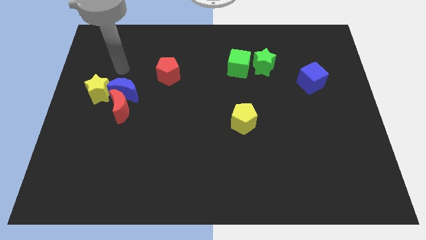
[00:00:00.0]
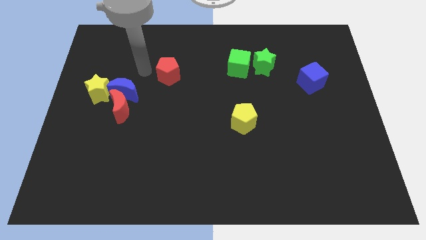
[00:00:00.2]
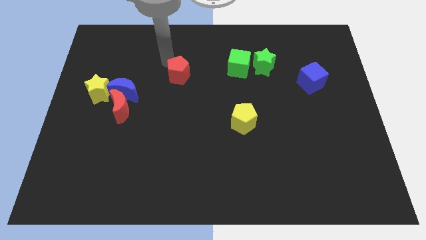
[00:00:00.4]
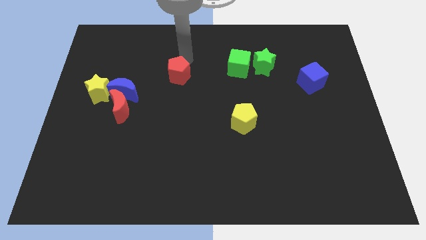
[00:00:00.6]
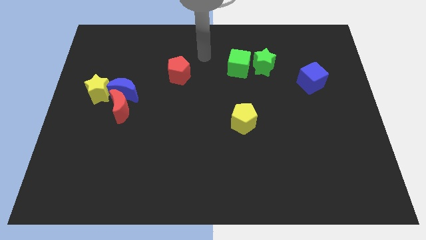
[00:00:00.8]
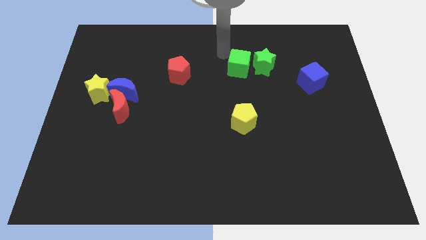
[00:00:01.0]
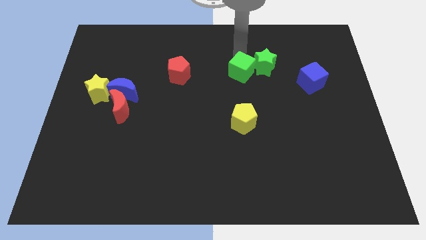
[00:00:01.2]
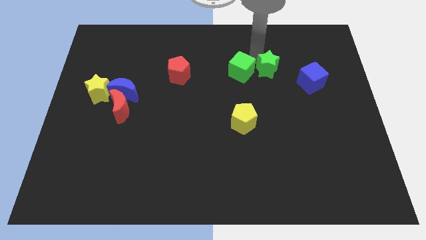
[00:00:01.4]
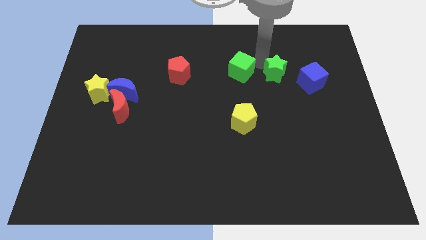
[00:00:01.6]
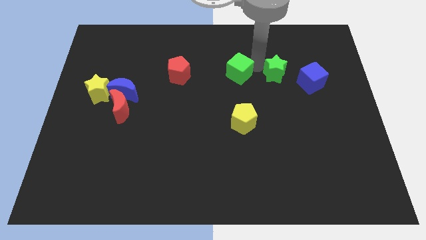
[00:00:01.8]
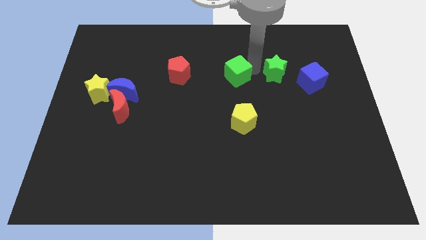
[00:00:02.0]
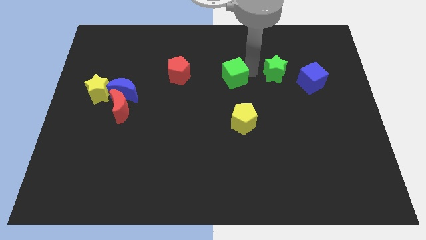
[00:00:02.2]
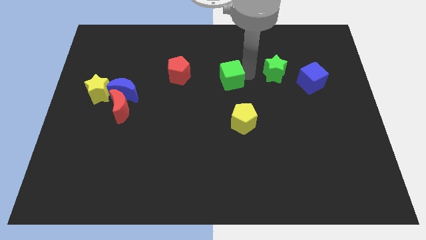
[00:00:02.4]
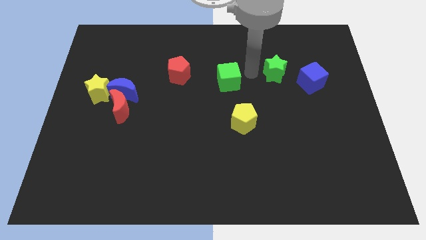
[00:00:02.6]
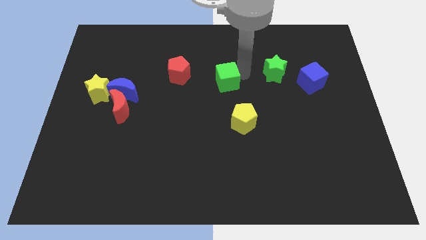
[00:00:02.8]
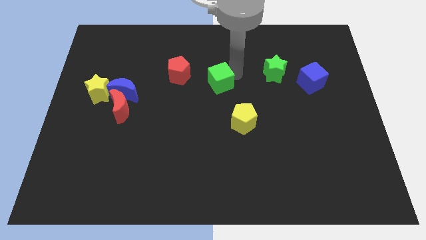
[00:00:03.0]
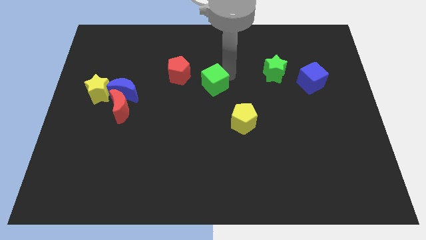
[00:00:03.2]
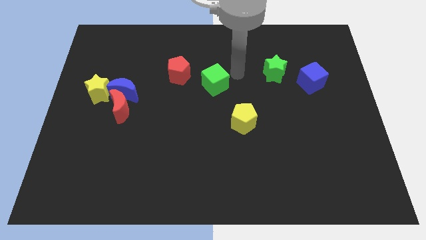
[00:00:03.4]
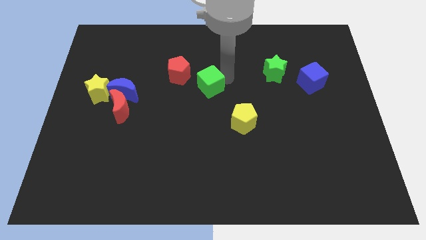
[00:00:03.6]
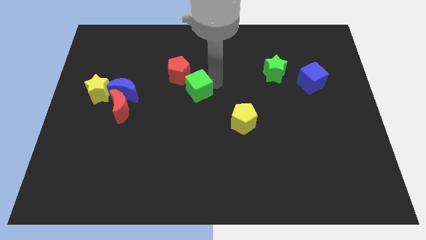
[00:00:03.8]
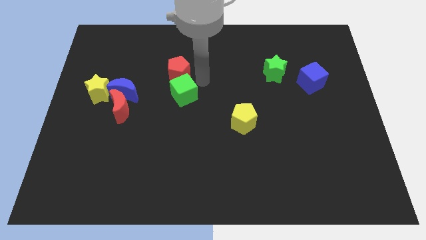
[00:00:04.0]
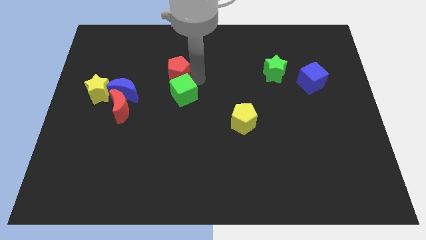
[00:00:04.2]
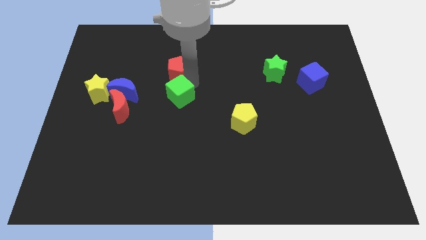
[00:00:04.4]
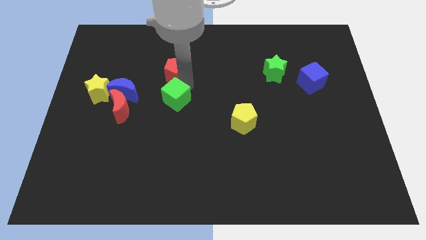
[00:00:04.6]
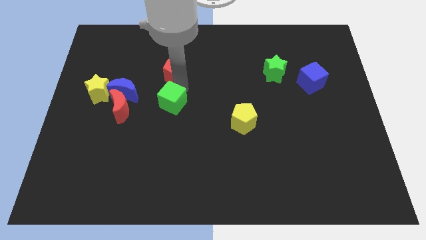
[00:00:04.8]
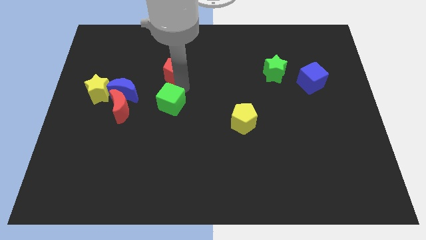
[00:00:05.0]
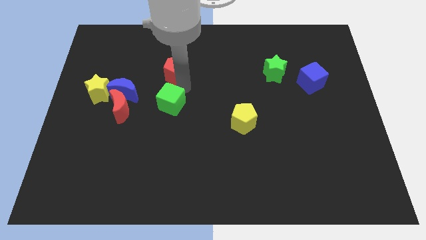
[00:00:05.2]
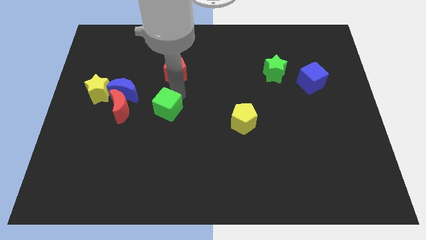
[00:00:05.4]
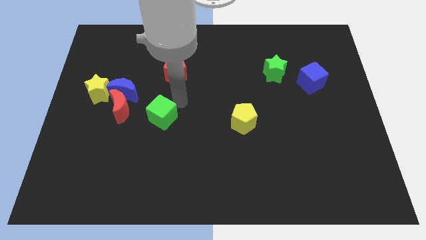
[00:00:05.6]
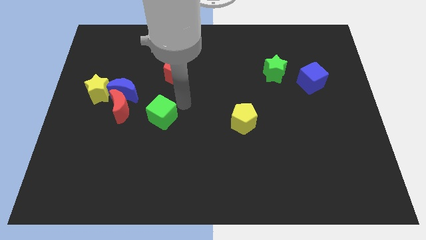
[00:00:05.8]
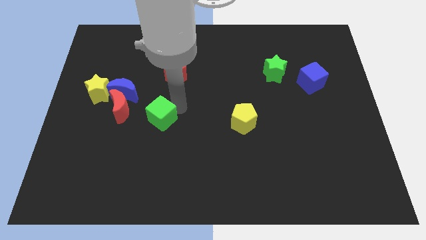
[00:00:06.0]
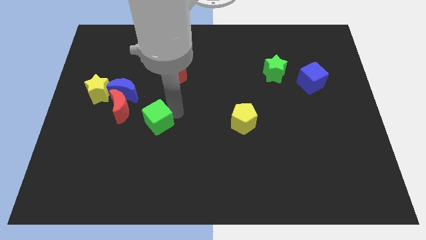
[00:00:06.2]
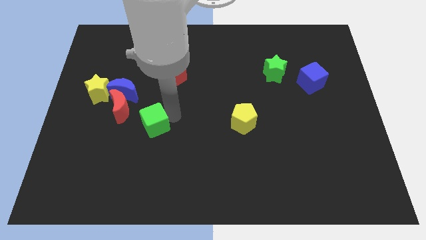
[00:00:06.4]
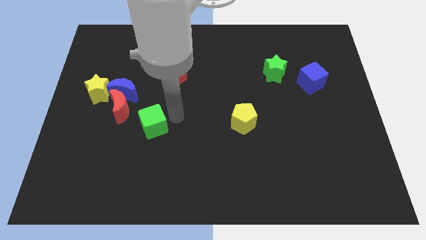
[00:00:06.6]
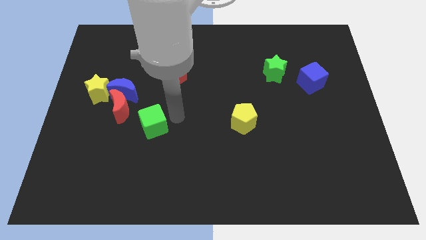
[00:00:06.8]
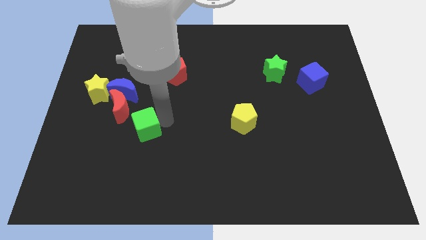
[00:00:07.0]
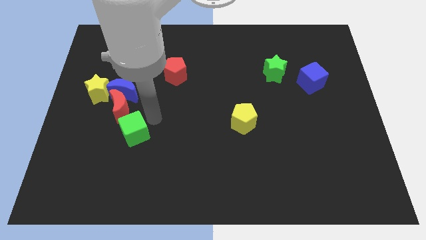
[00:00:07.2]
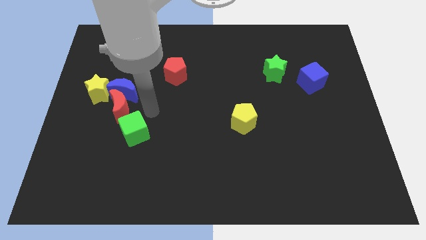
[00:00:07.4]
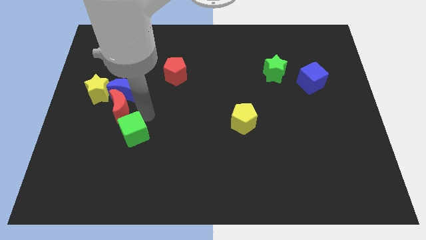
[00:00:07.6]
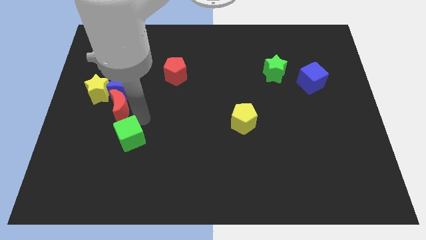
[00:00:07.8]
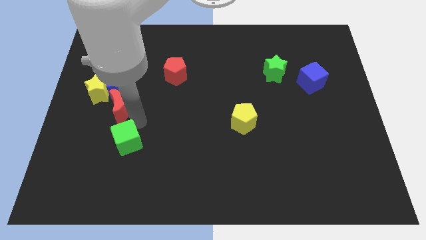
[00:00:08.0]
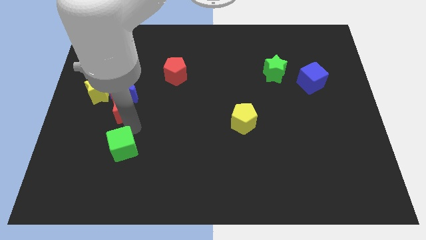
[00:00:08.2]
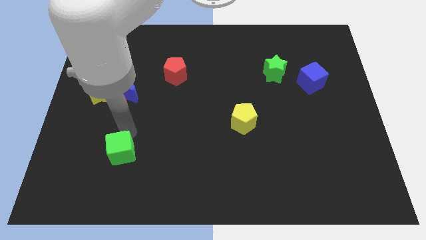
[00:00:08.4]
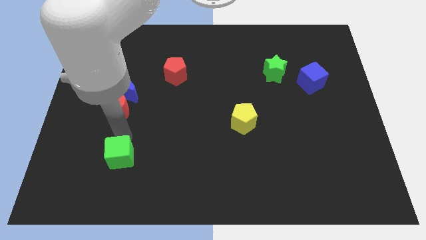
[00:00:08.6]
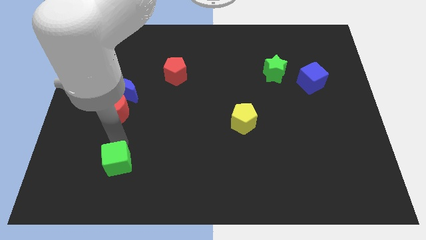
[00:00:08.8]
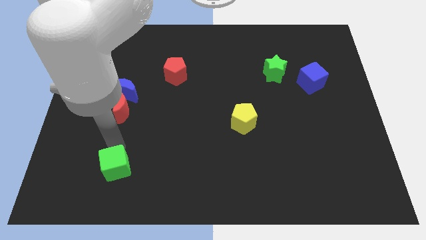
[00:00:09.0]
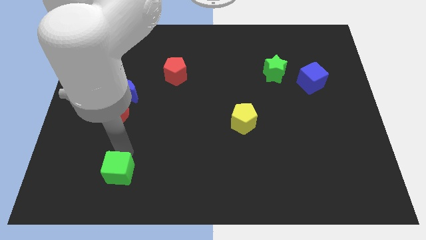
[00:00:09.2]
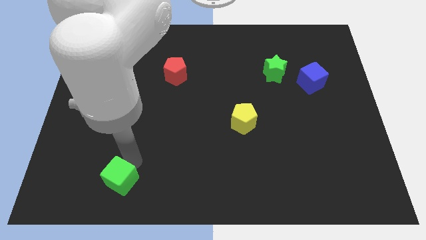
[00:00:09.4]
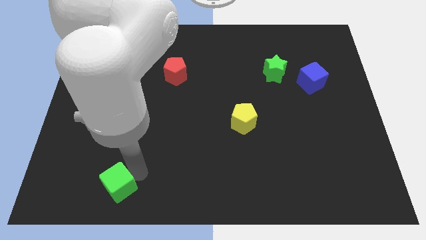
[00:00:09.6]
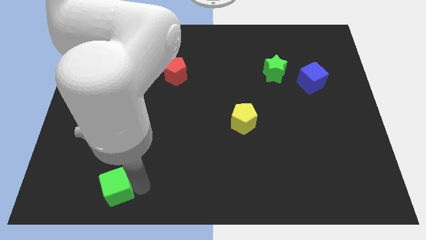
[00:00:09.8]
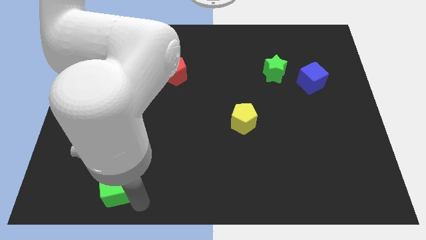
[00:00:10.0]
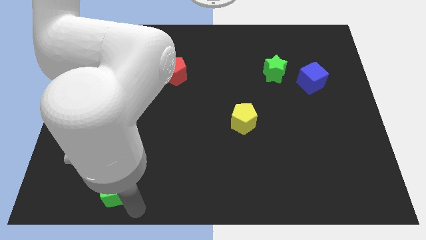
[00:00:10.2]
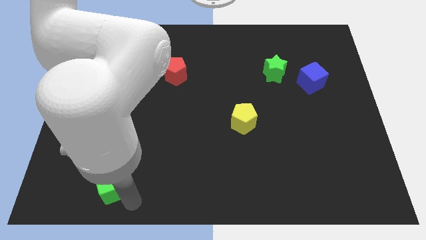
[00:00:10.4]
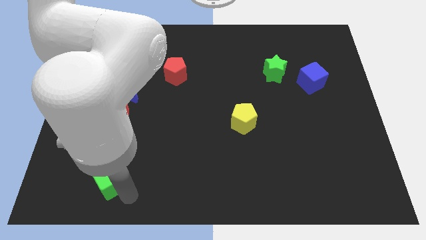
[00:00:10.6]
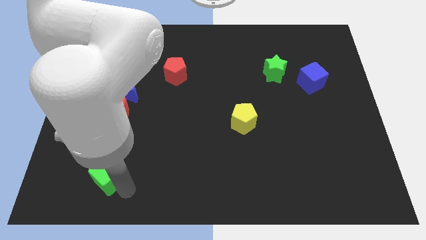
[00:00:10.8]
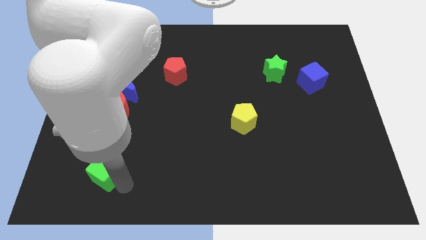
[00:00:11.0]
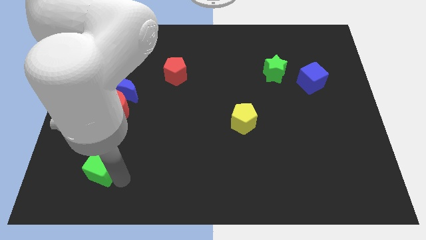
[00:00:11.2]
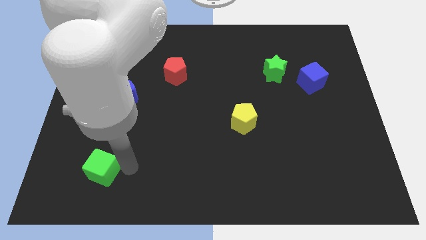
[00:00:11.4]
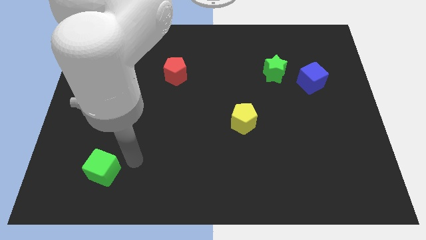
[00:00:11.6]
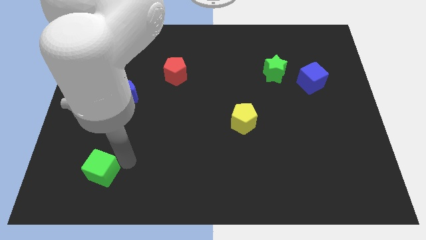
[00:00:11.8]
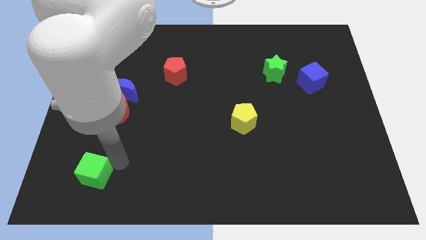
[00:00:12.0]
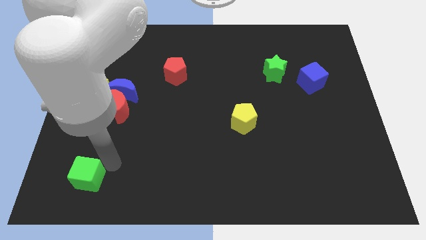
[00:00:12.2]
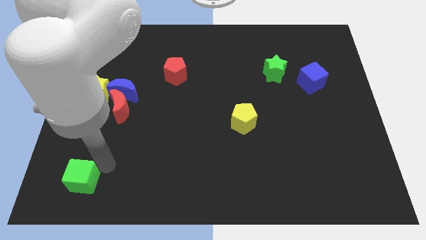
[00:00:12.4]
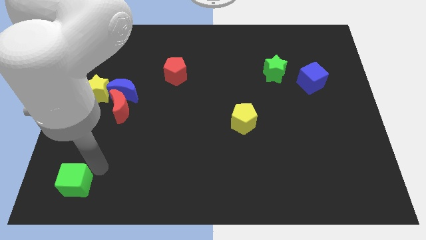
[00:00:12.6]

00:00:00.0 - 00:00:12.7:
push the green cube to the lower left corner

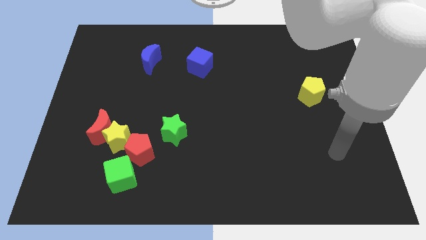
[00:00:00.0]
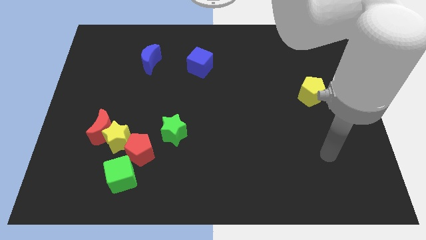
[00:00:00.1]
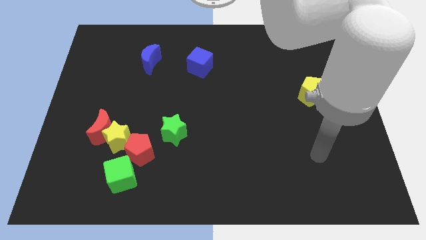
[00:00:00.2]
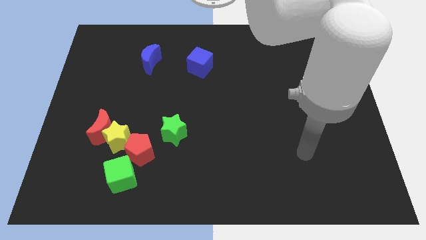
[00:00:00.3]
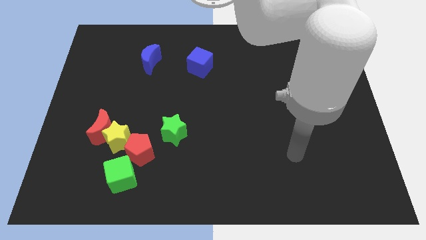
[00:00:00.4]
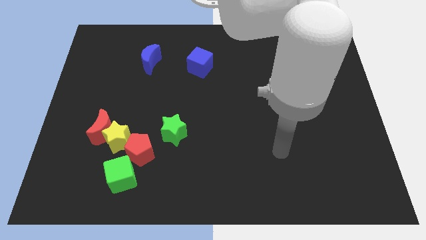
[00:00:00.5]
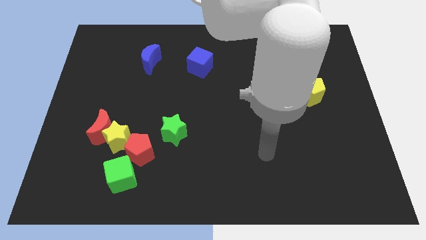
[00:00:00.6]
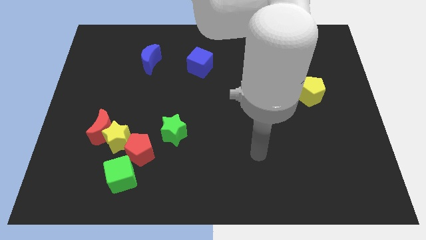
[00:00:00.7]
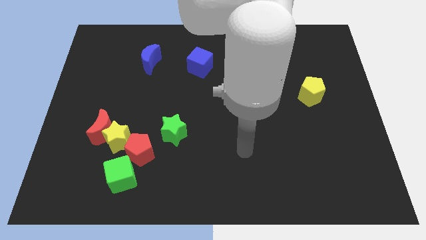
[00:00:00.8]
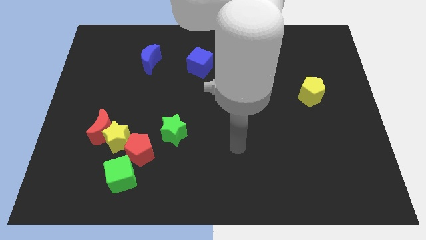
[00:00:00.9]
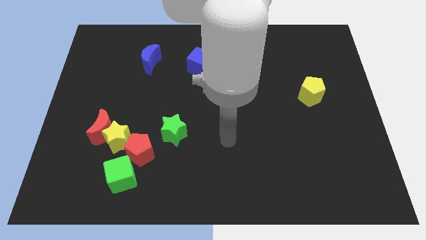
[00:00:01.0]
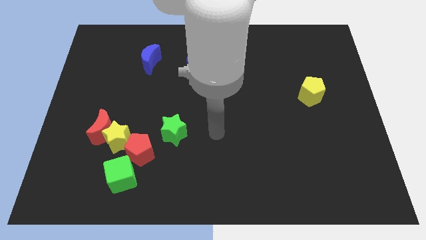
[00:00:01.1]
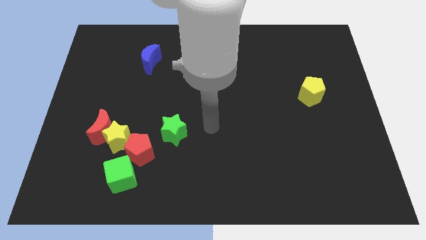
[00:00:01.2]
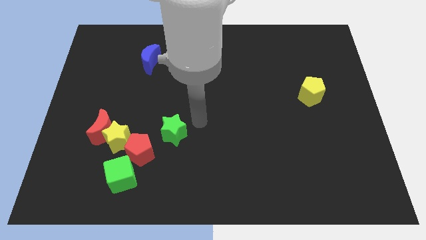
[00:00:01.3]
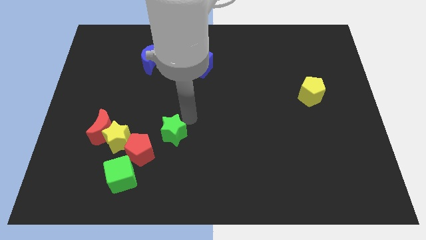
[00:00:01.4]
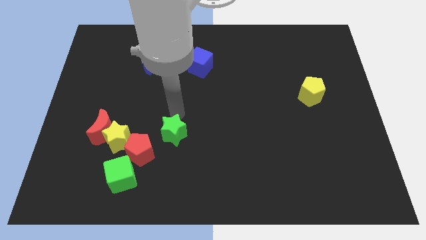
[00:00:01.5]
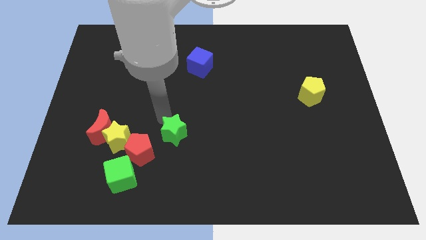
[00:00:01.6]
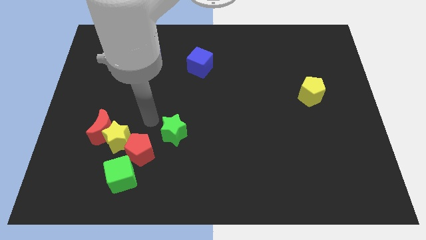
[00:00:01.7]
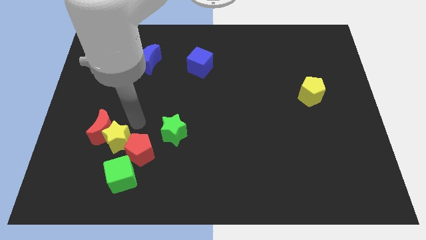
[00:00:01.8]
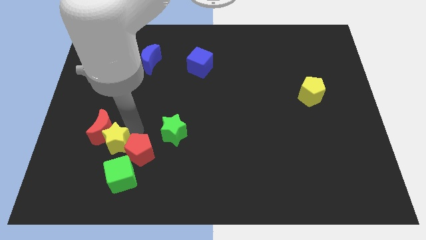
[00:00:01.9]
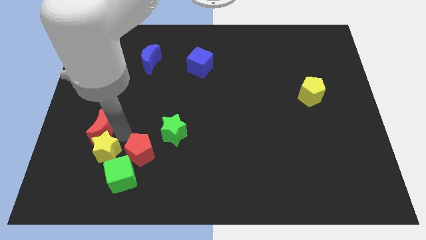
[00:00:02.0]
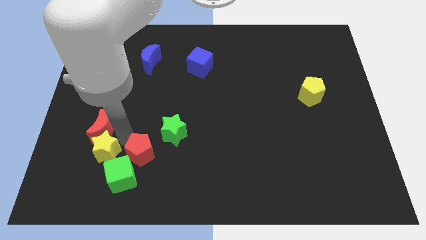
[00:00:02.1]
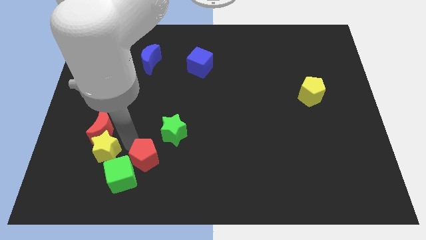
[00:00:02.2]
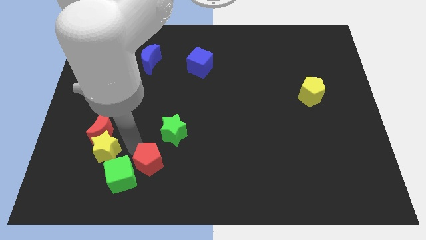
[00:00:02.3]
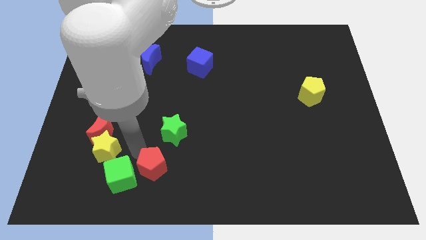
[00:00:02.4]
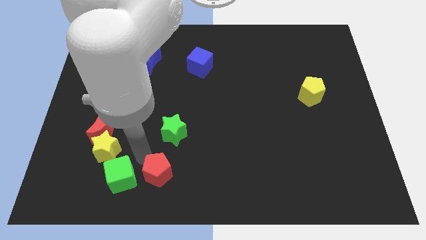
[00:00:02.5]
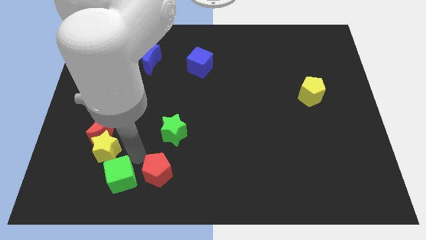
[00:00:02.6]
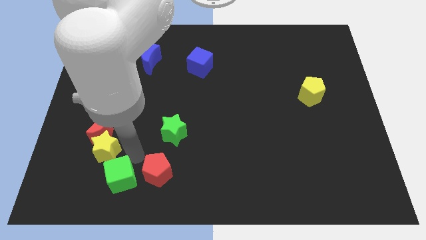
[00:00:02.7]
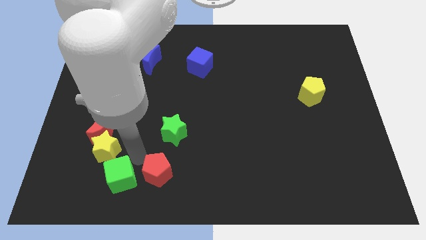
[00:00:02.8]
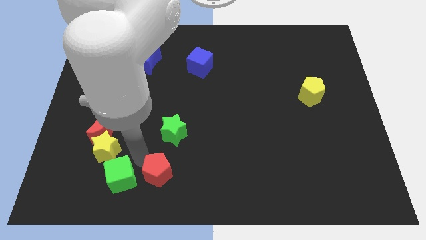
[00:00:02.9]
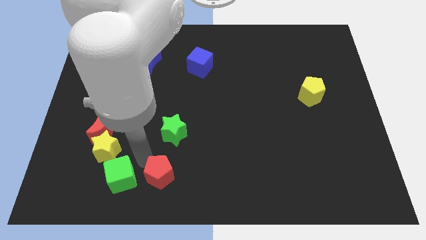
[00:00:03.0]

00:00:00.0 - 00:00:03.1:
put the red pentagon to the bottom
